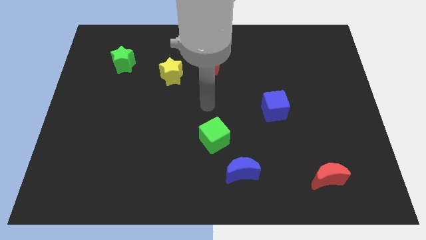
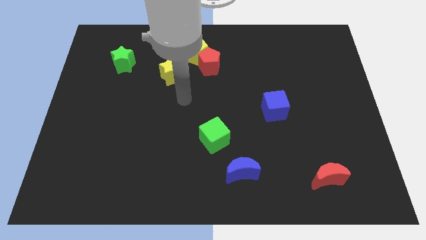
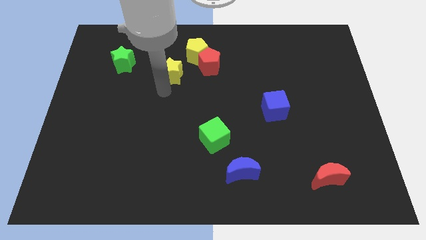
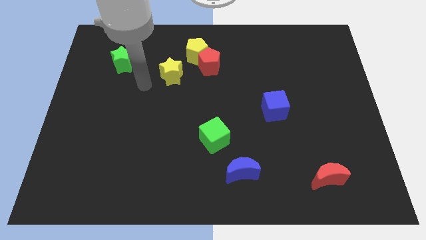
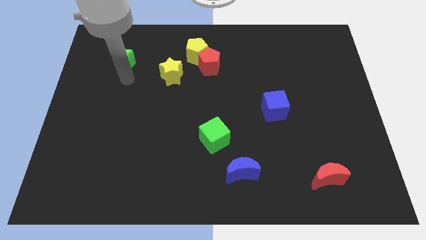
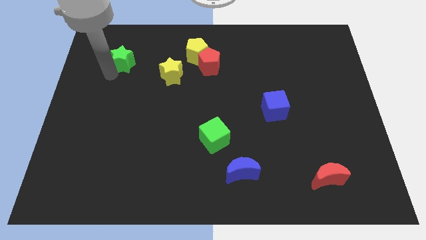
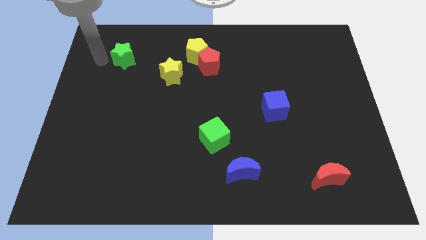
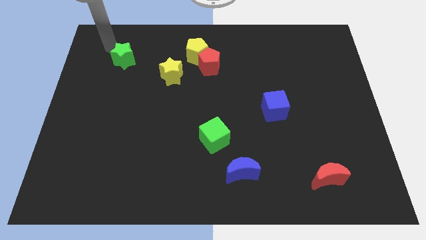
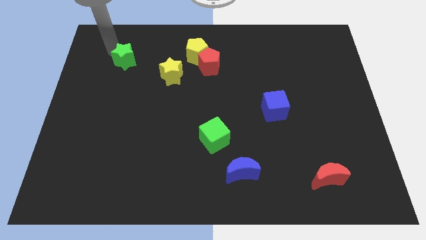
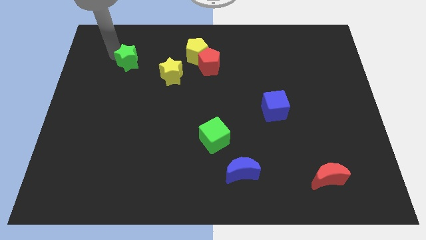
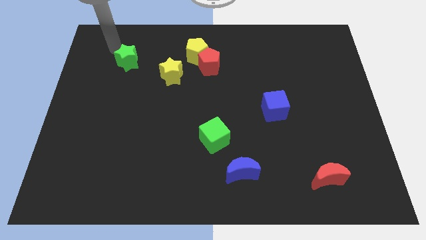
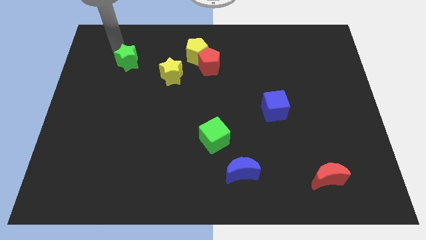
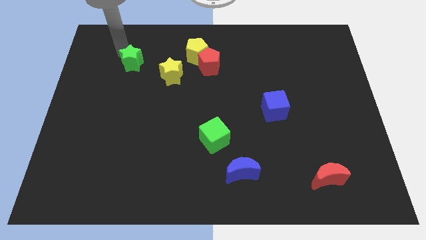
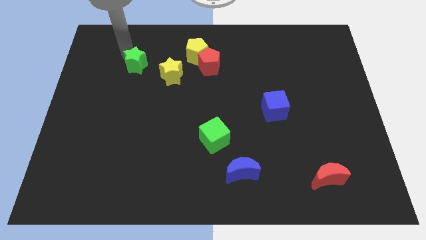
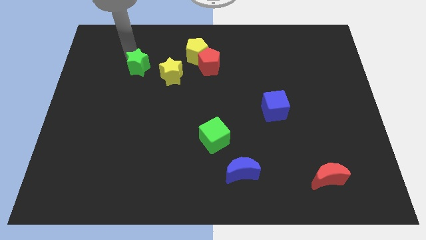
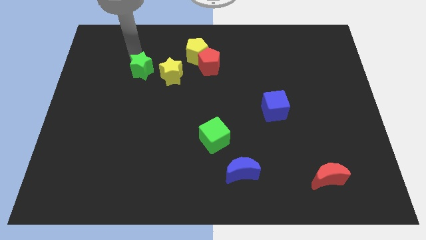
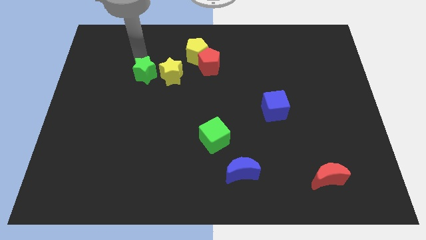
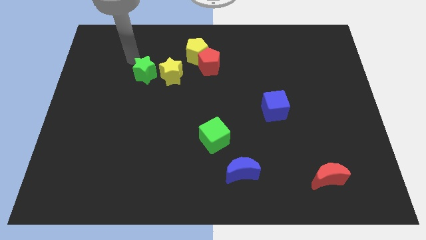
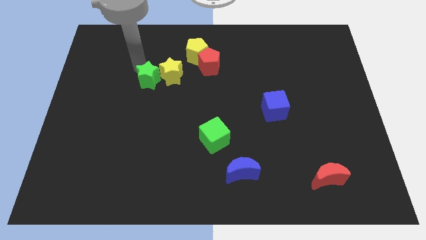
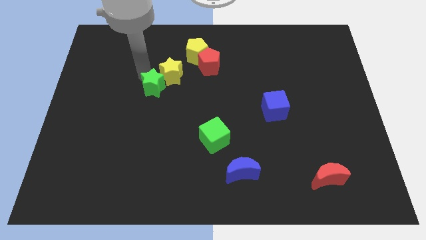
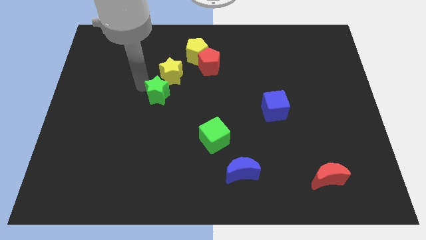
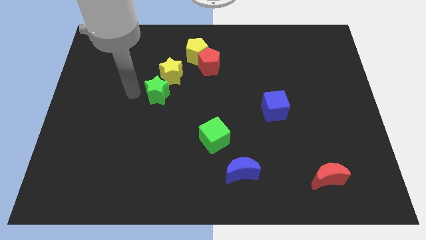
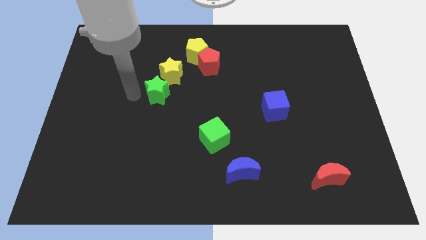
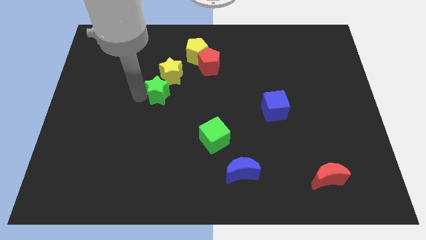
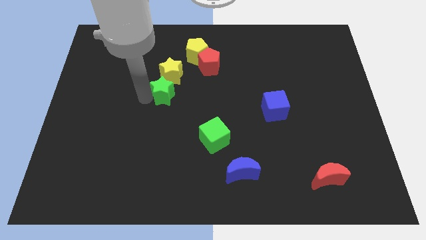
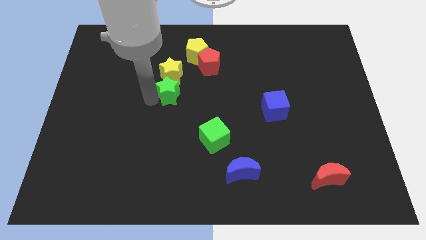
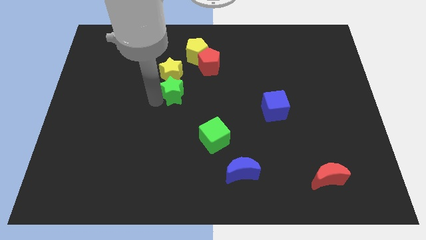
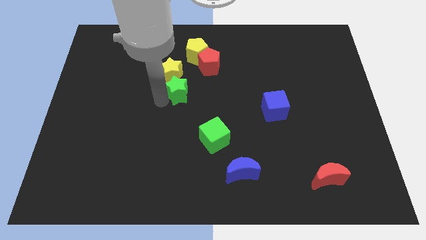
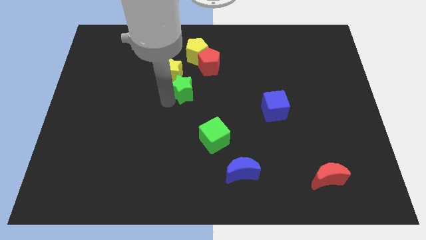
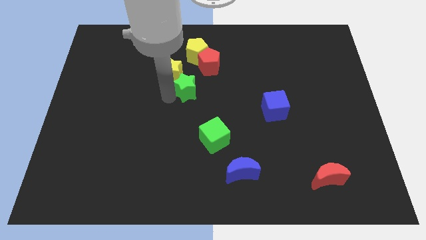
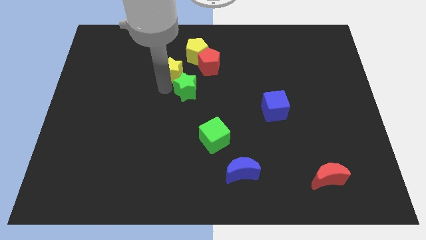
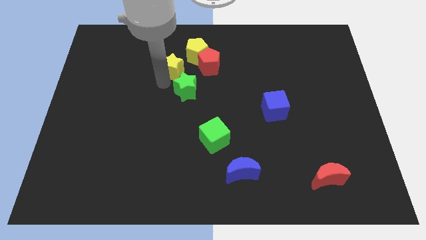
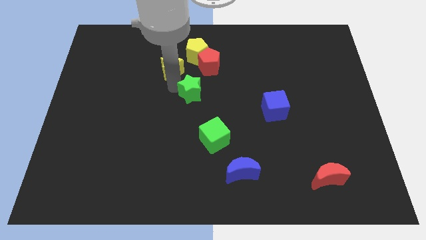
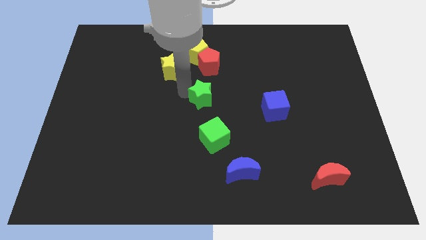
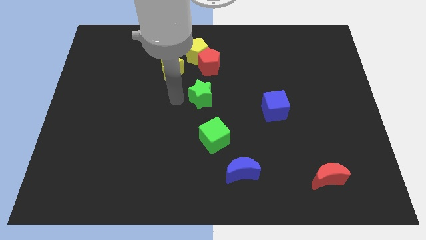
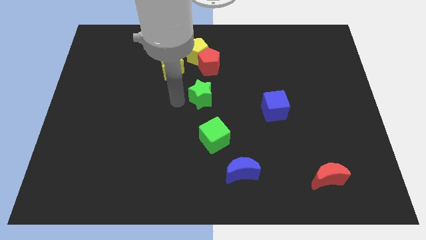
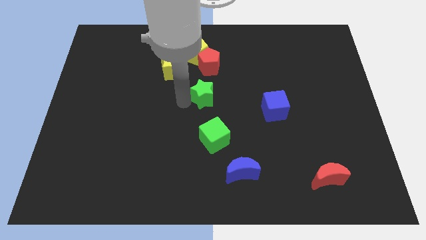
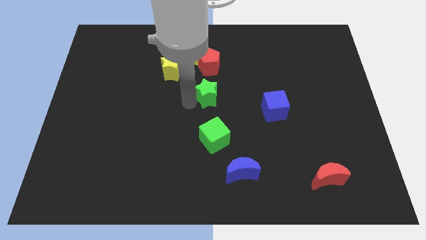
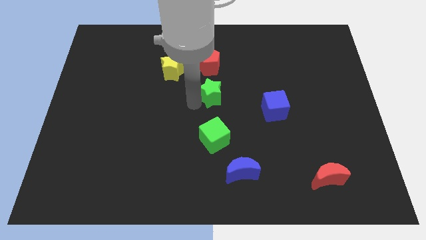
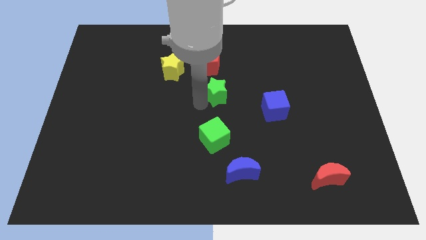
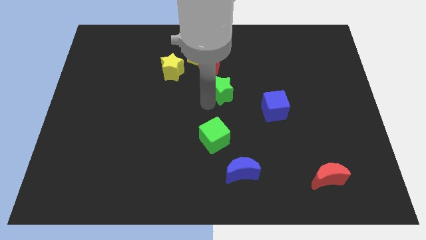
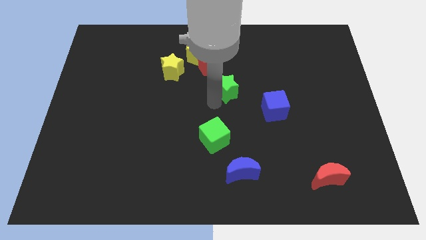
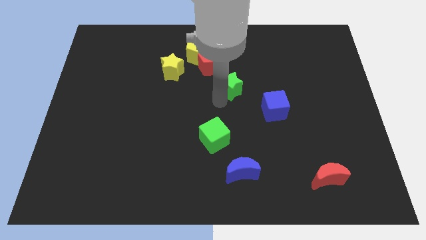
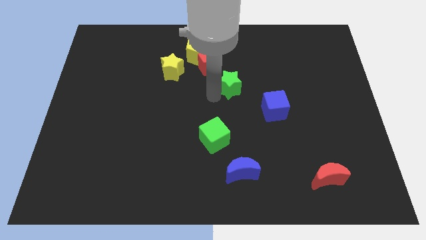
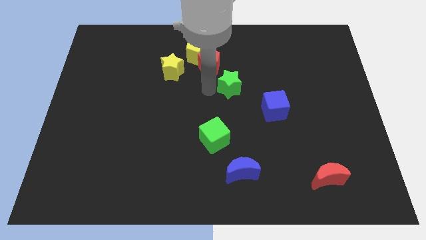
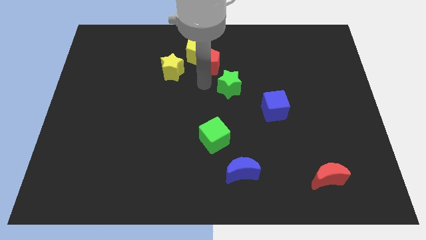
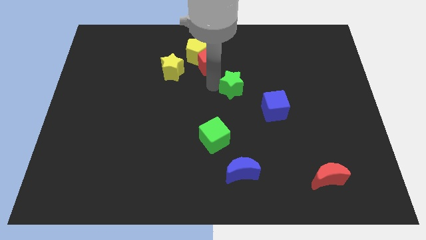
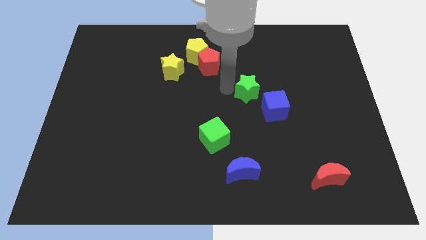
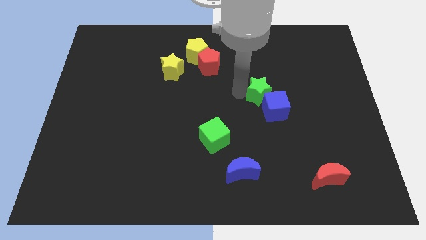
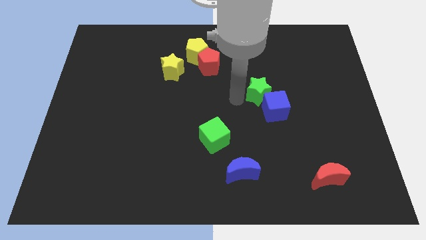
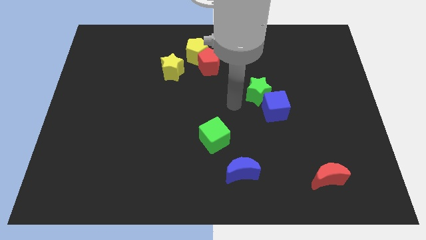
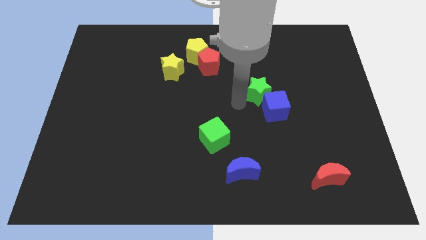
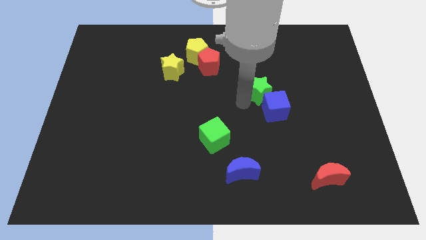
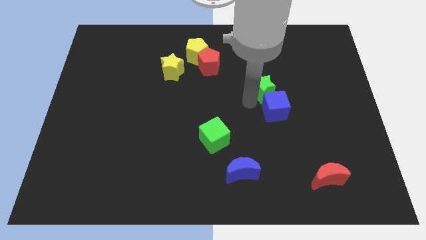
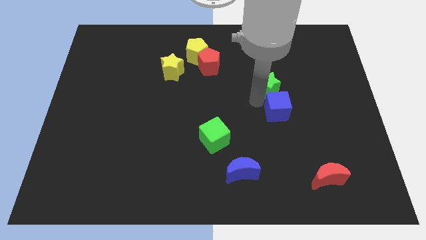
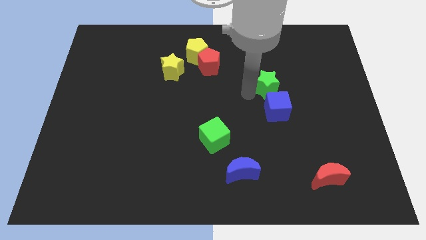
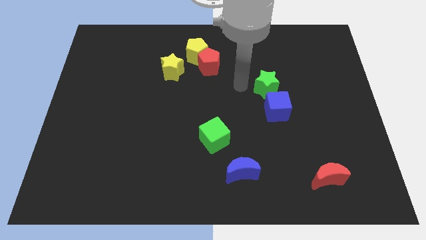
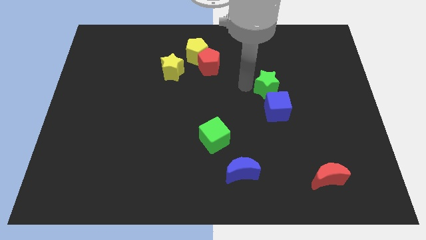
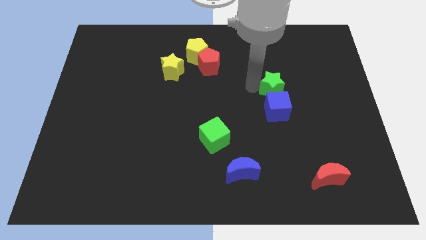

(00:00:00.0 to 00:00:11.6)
push the green star to the top right side of the blue cube

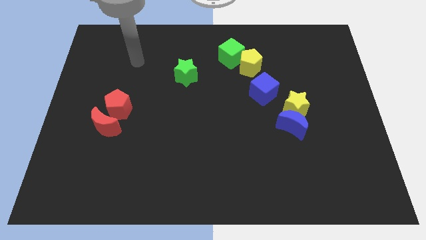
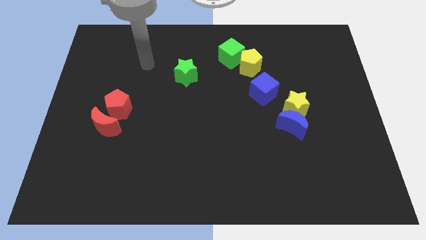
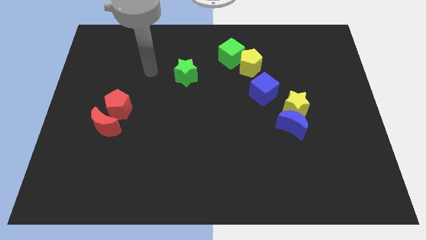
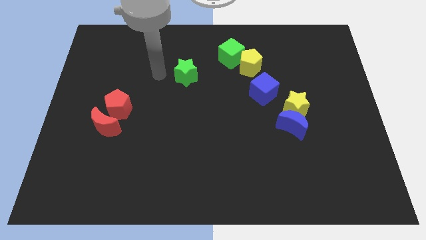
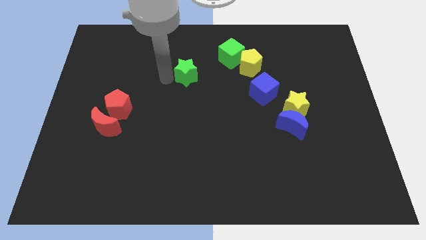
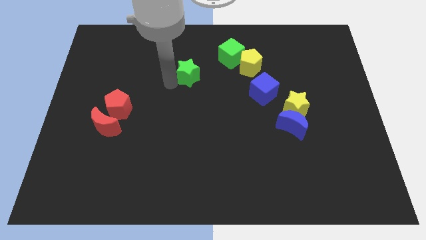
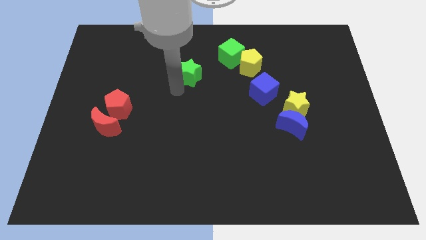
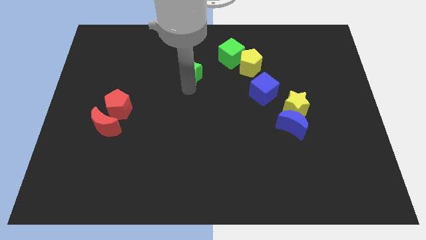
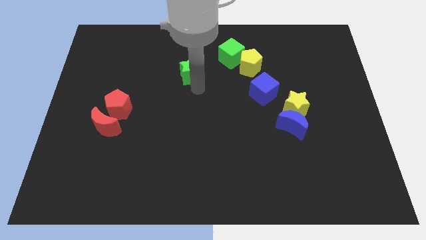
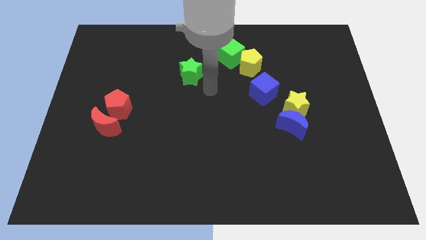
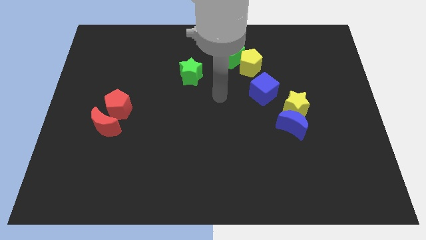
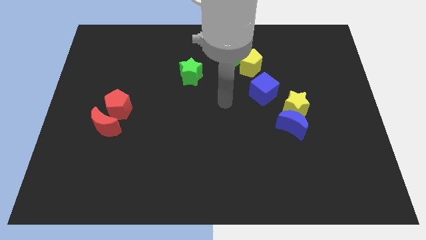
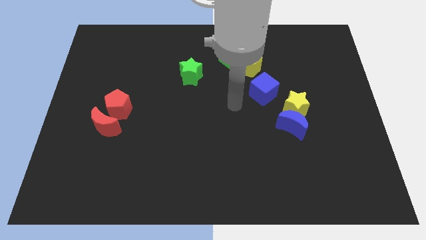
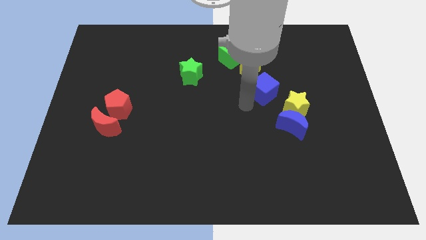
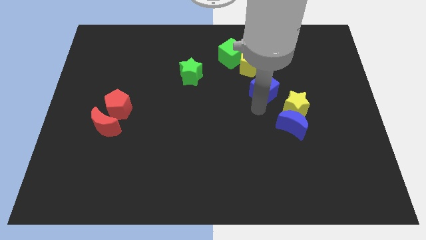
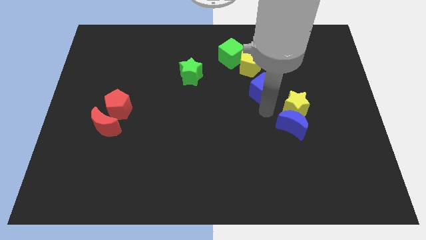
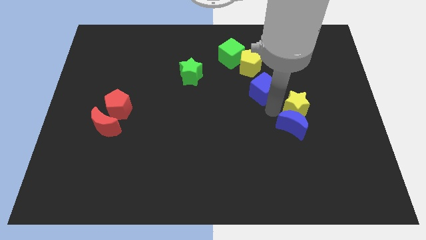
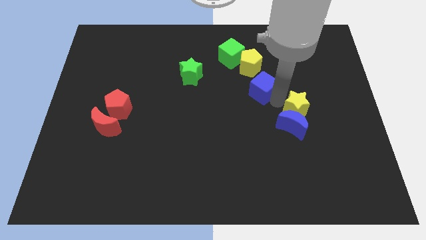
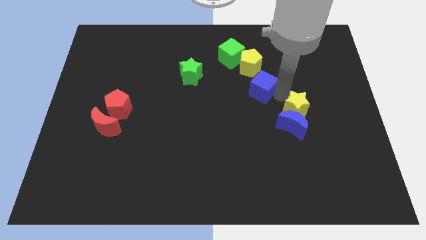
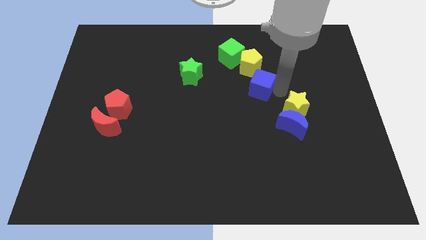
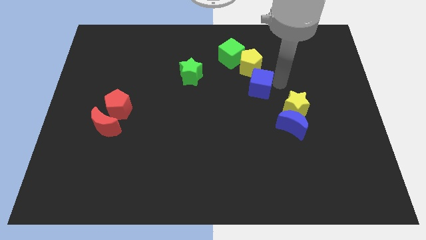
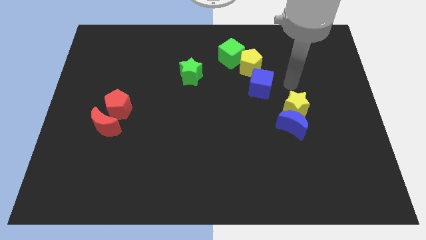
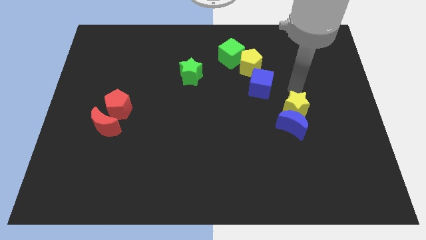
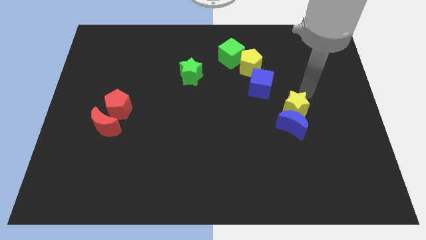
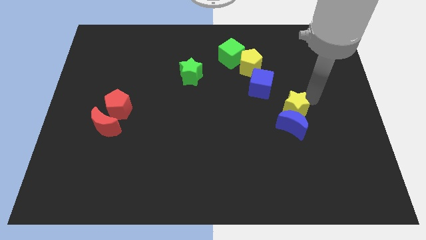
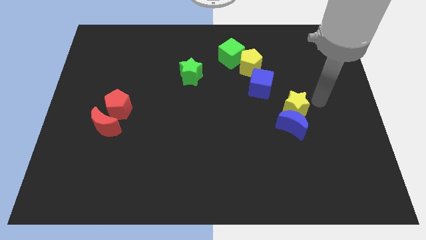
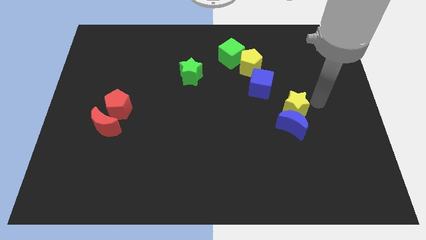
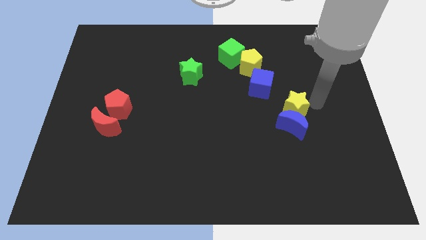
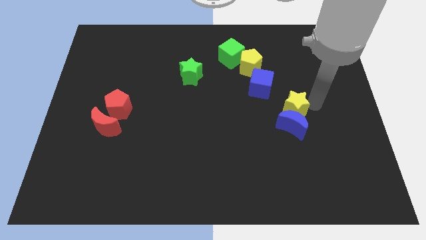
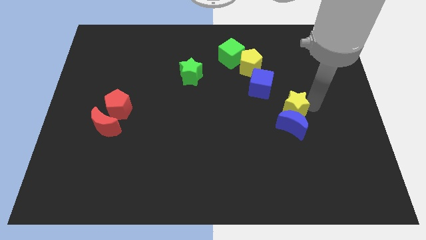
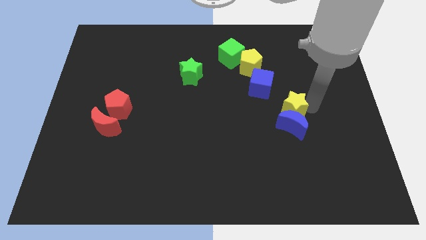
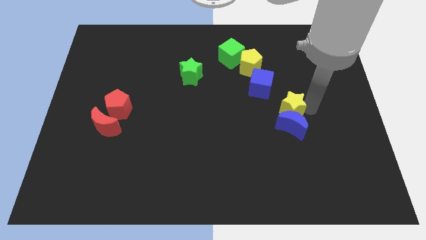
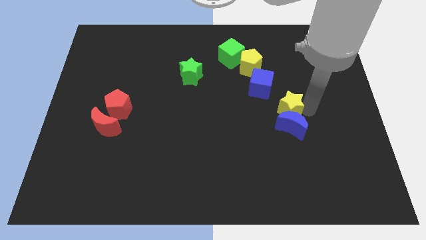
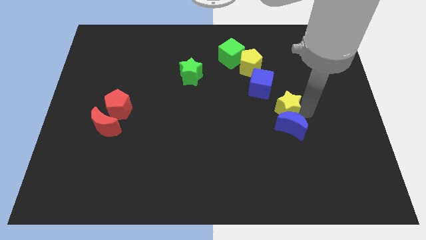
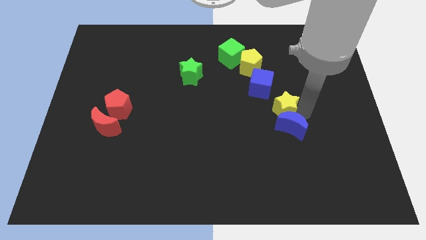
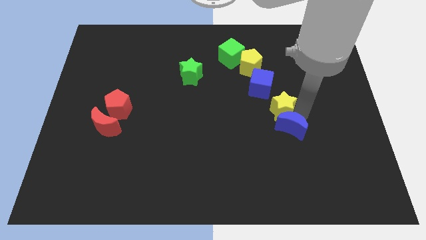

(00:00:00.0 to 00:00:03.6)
move the yellow star to the bottom side of the blue cube
